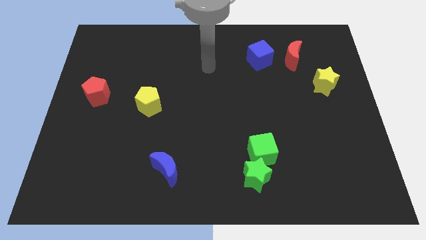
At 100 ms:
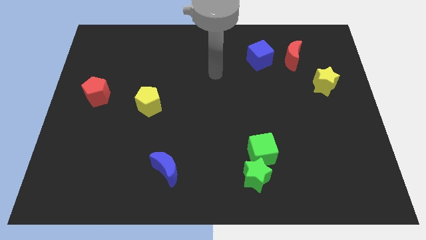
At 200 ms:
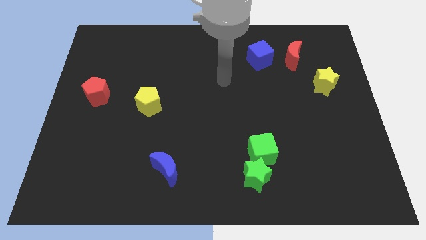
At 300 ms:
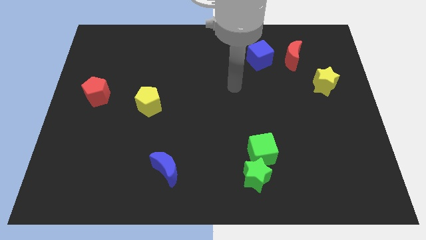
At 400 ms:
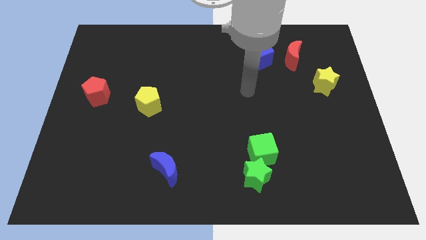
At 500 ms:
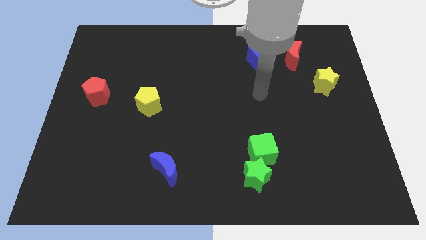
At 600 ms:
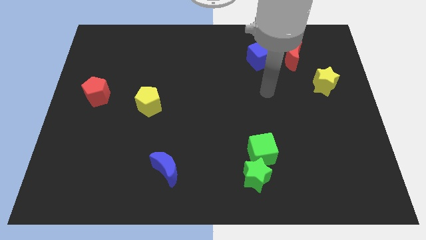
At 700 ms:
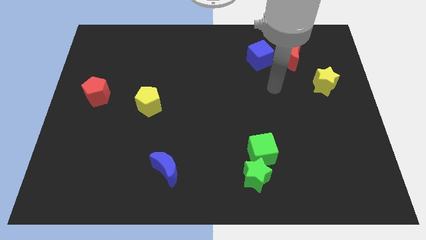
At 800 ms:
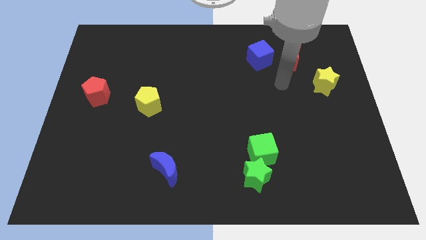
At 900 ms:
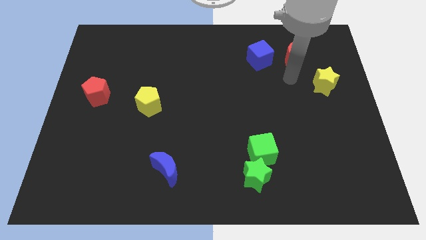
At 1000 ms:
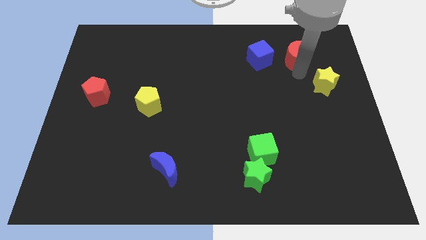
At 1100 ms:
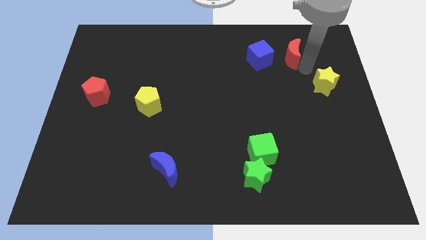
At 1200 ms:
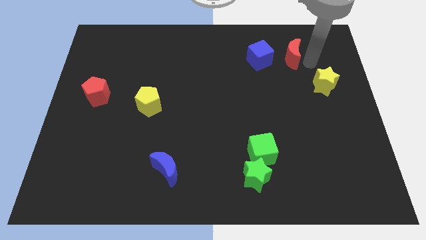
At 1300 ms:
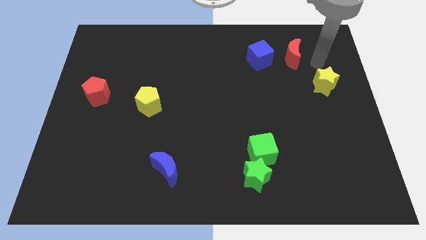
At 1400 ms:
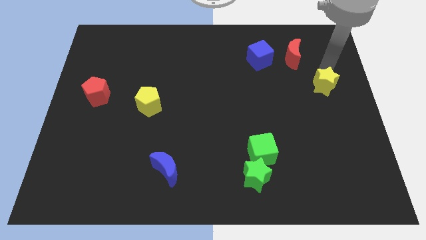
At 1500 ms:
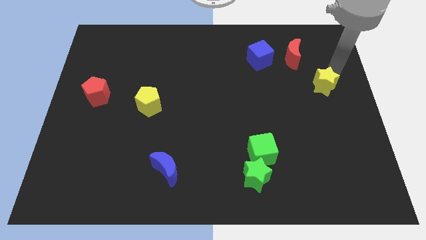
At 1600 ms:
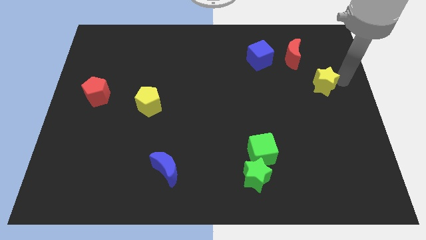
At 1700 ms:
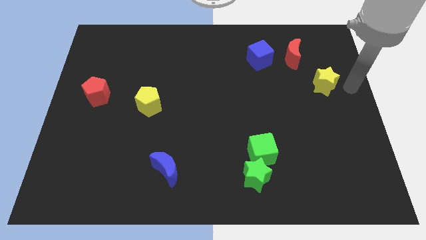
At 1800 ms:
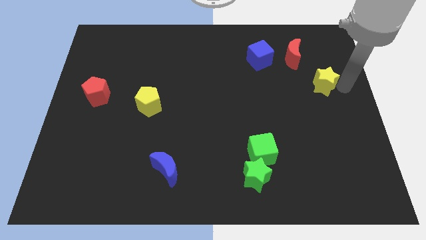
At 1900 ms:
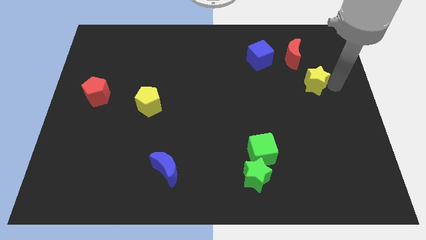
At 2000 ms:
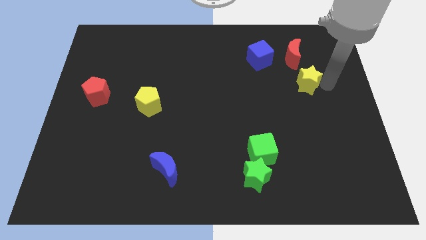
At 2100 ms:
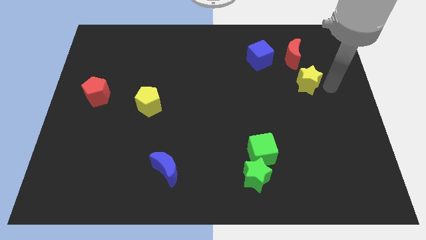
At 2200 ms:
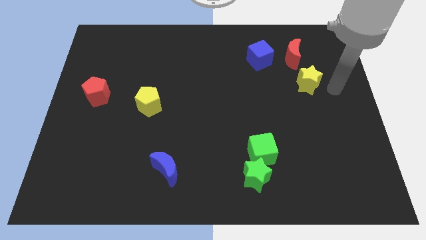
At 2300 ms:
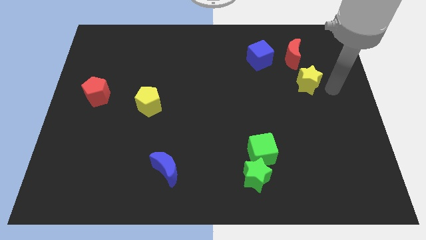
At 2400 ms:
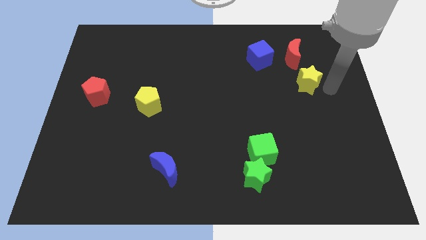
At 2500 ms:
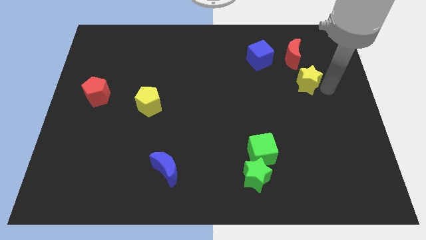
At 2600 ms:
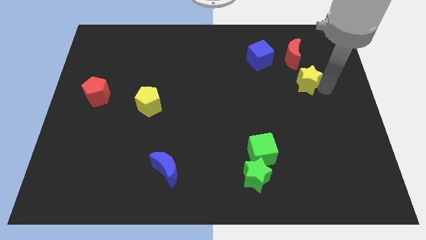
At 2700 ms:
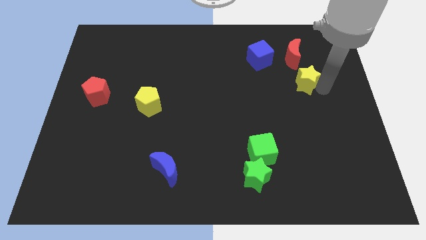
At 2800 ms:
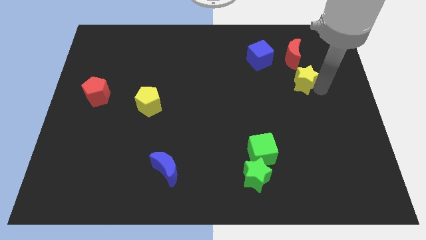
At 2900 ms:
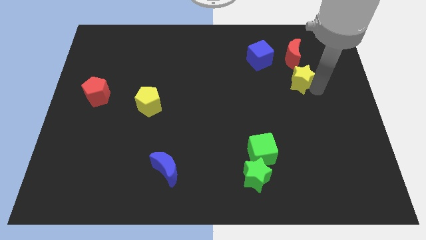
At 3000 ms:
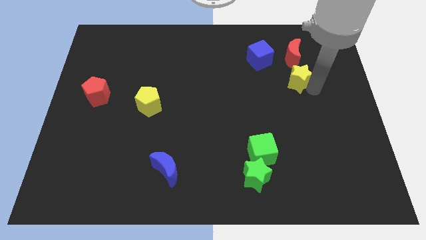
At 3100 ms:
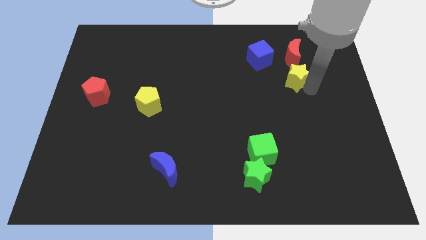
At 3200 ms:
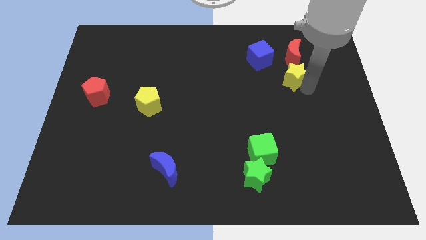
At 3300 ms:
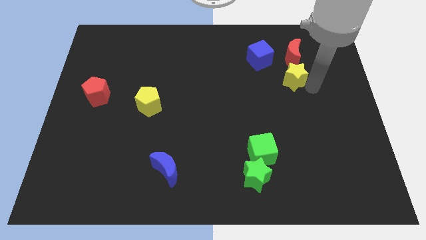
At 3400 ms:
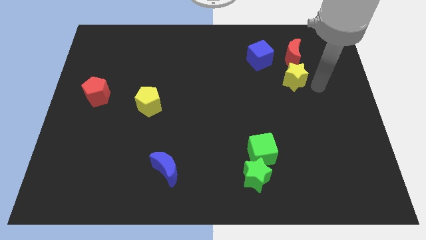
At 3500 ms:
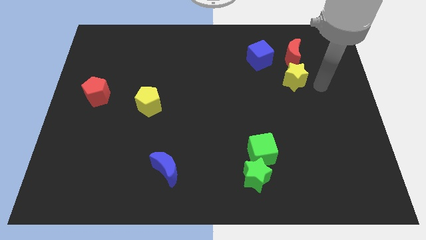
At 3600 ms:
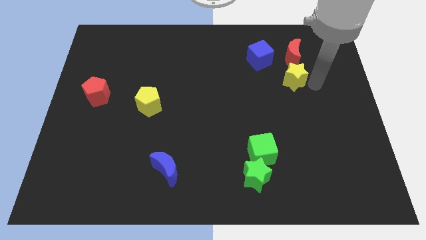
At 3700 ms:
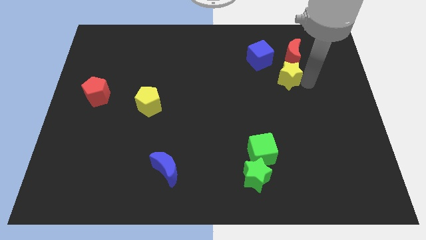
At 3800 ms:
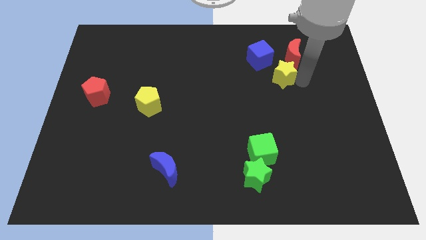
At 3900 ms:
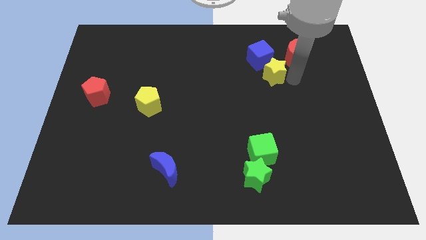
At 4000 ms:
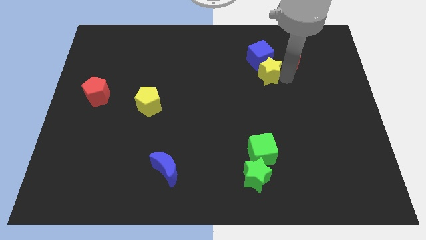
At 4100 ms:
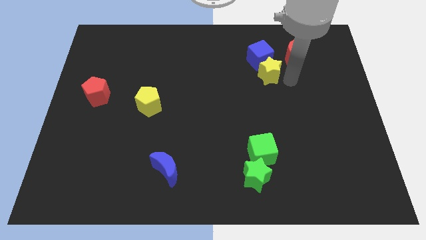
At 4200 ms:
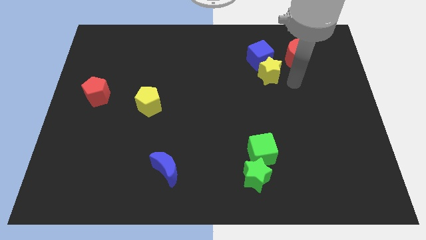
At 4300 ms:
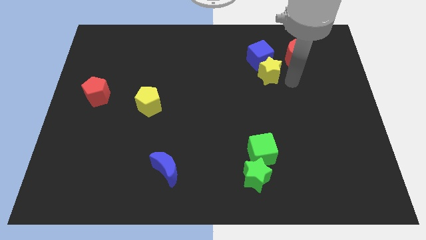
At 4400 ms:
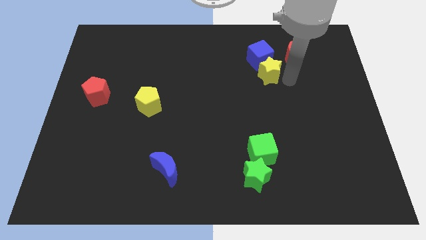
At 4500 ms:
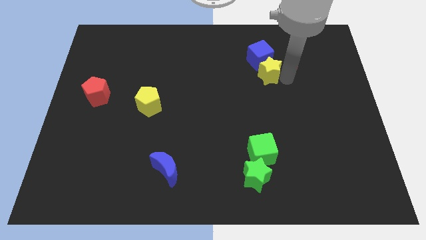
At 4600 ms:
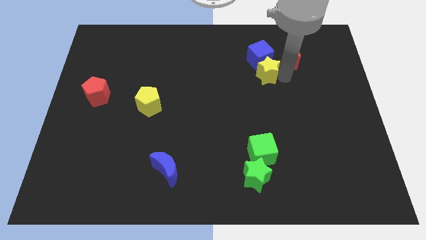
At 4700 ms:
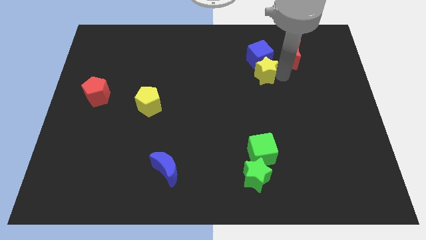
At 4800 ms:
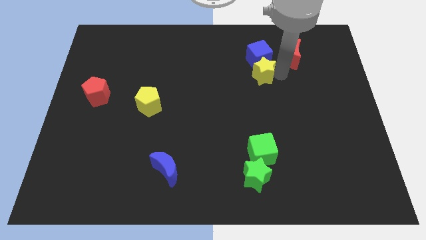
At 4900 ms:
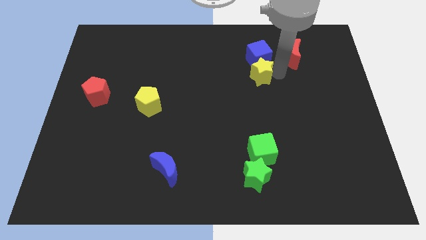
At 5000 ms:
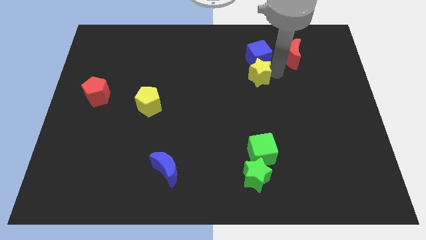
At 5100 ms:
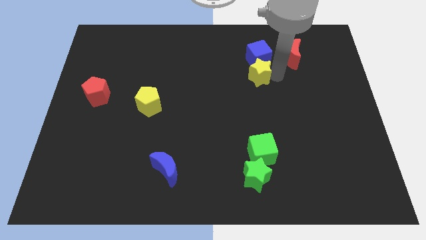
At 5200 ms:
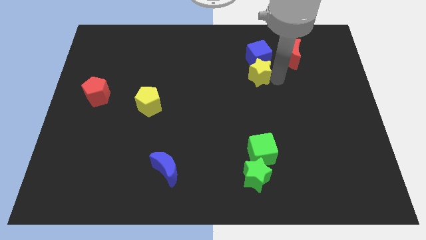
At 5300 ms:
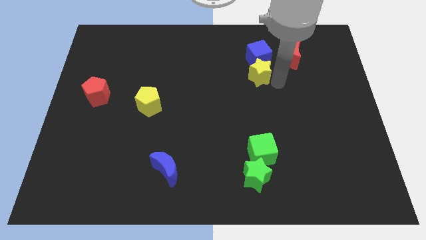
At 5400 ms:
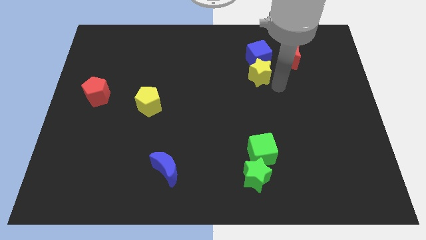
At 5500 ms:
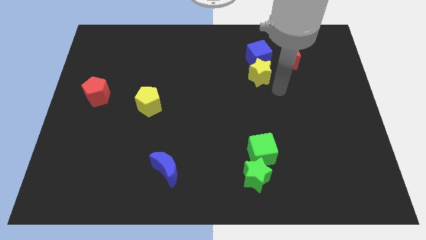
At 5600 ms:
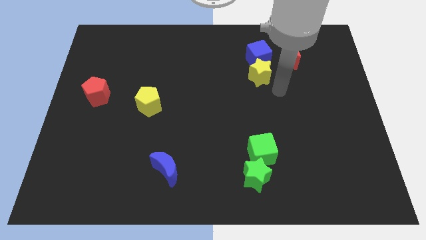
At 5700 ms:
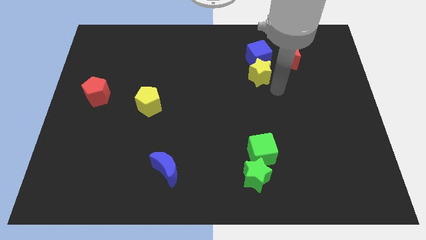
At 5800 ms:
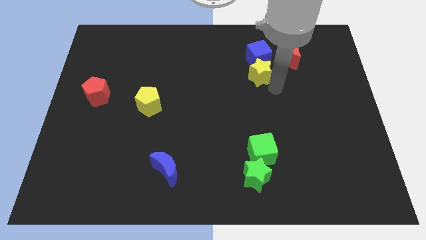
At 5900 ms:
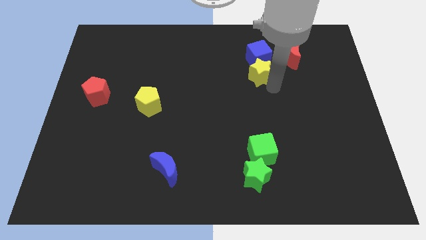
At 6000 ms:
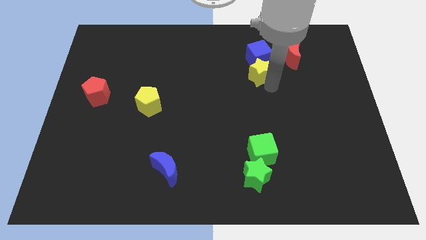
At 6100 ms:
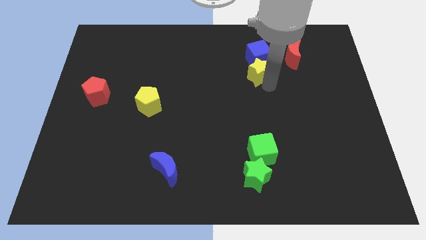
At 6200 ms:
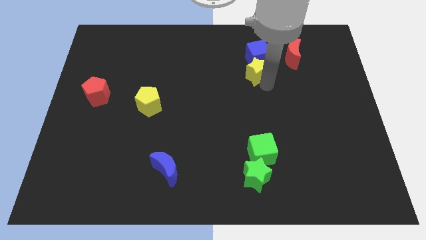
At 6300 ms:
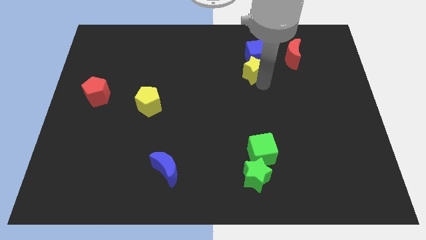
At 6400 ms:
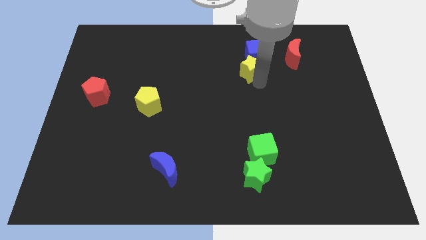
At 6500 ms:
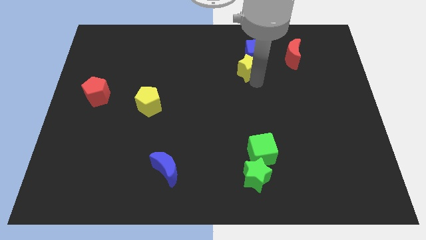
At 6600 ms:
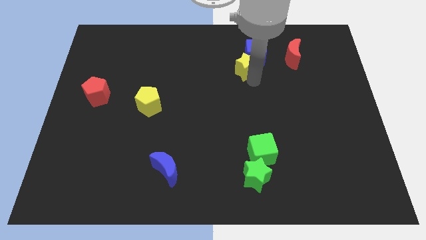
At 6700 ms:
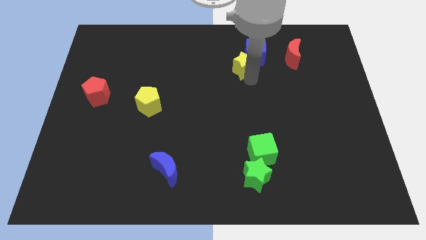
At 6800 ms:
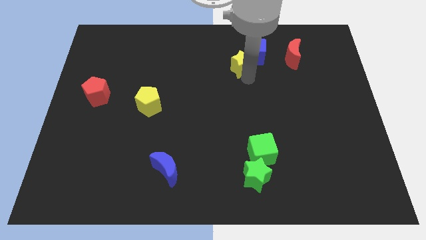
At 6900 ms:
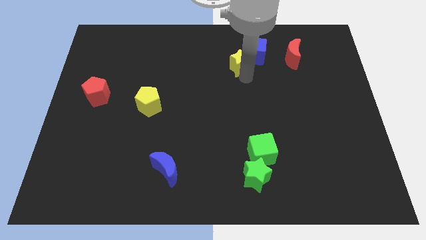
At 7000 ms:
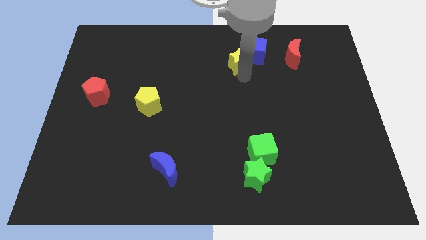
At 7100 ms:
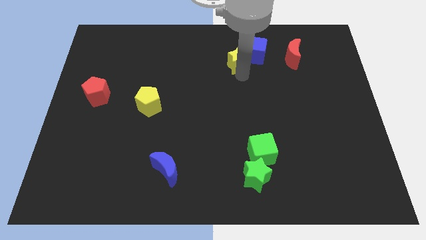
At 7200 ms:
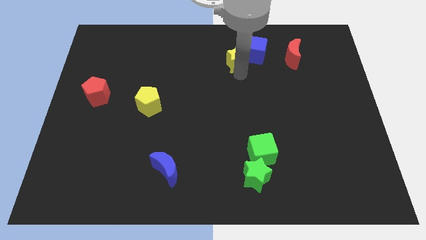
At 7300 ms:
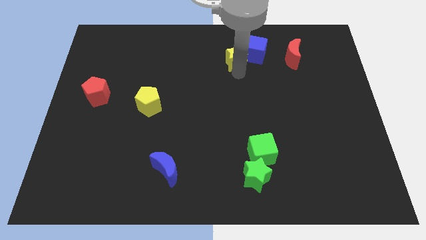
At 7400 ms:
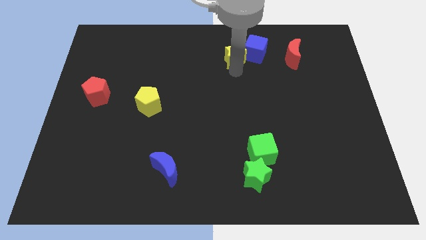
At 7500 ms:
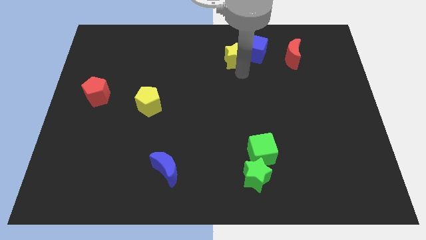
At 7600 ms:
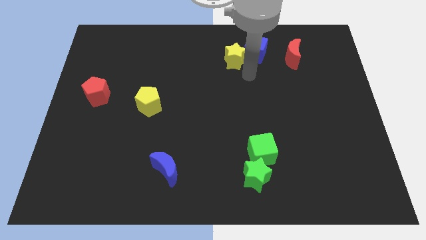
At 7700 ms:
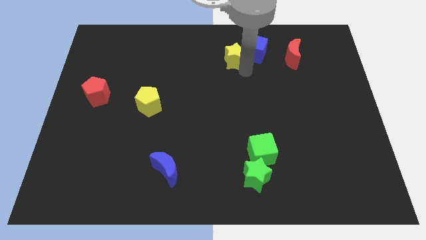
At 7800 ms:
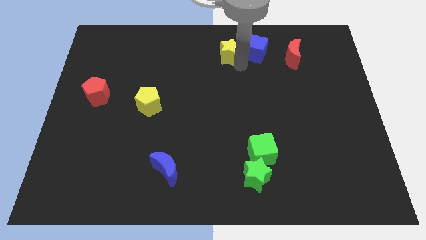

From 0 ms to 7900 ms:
put the yellow star to the top
